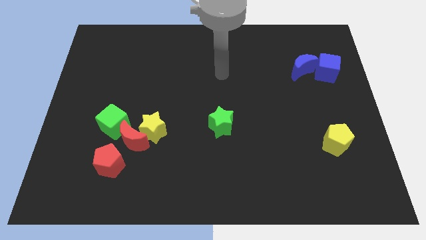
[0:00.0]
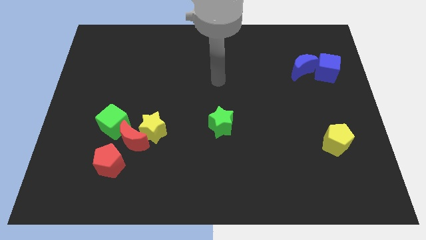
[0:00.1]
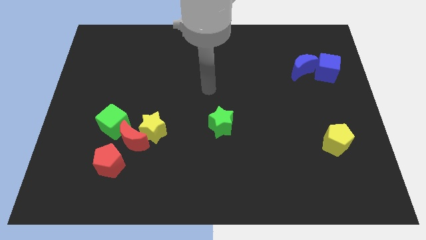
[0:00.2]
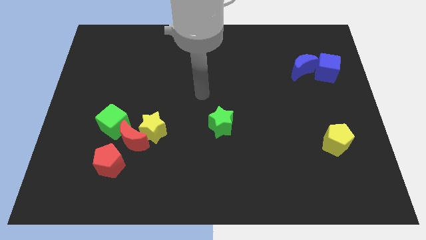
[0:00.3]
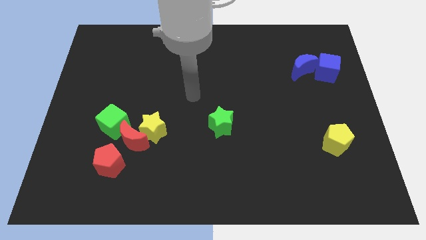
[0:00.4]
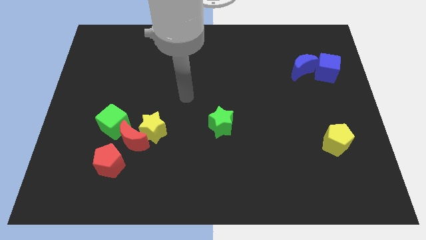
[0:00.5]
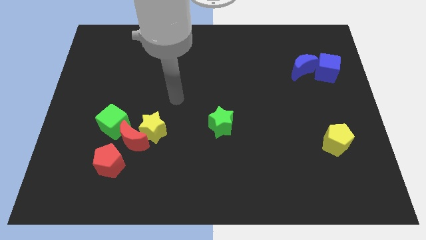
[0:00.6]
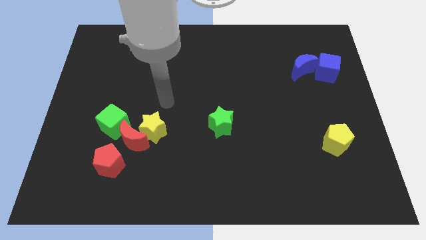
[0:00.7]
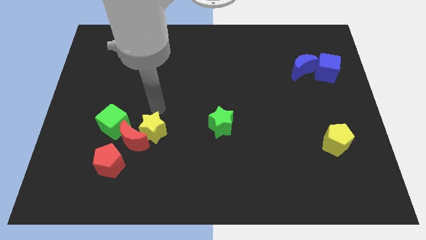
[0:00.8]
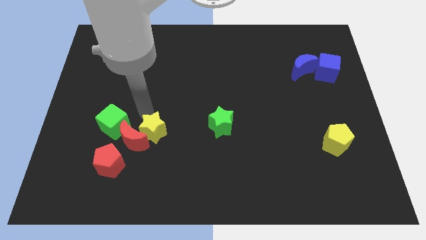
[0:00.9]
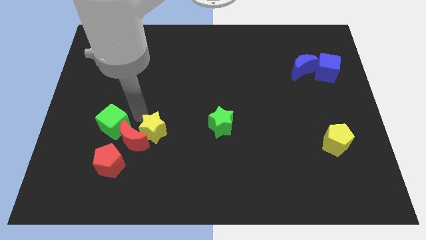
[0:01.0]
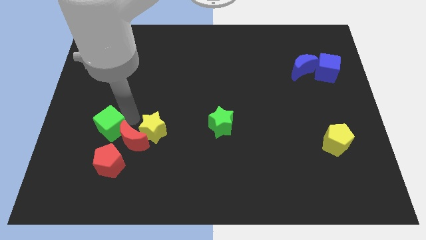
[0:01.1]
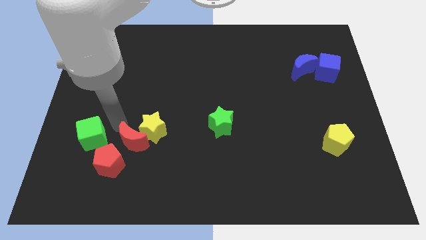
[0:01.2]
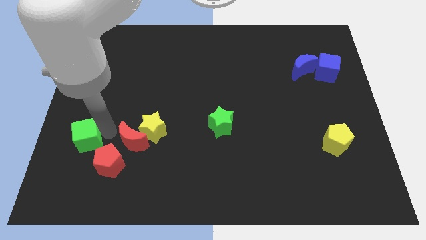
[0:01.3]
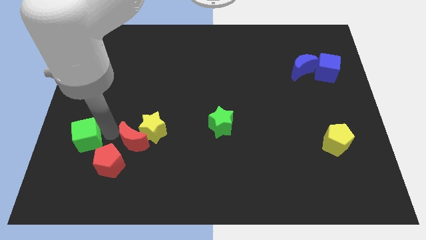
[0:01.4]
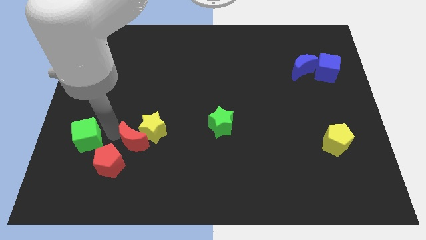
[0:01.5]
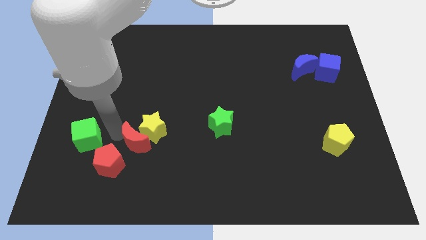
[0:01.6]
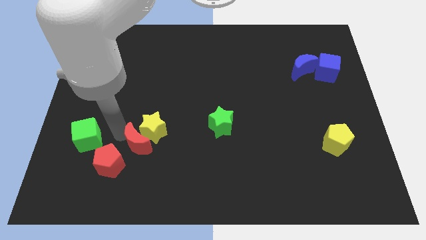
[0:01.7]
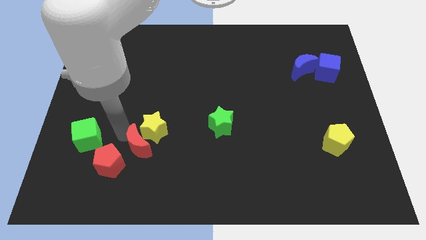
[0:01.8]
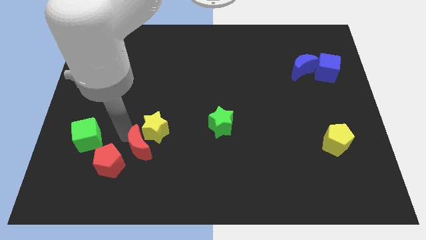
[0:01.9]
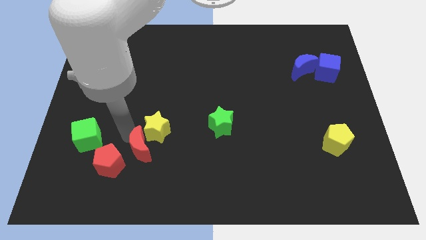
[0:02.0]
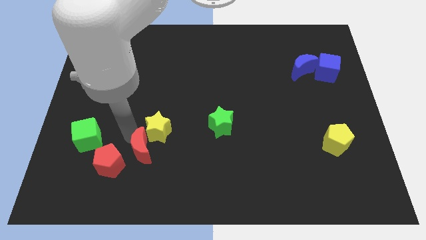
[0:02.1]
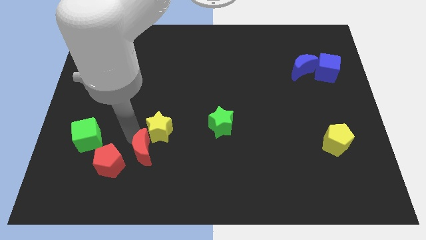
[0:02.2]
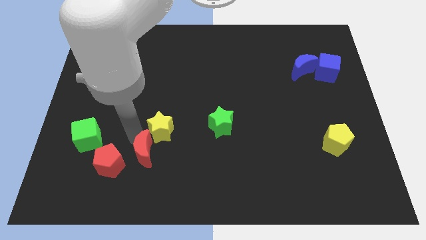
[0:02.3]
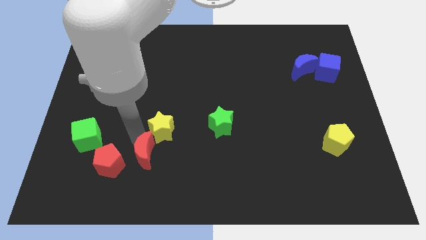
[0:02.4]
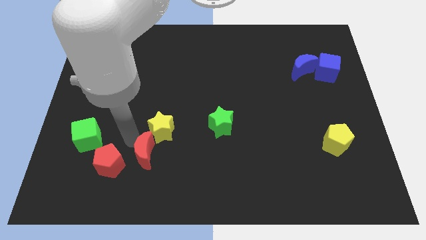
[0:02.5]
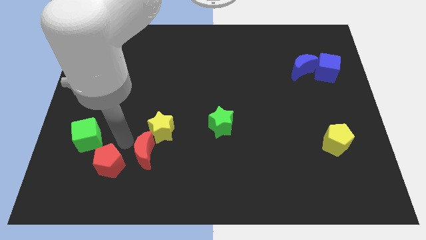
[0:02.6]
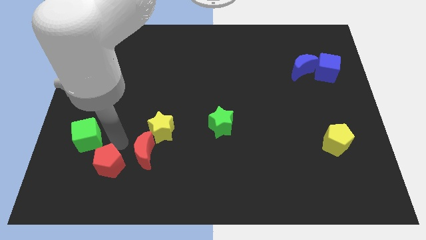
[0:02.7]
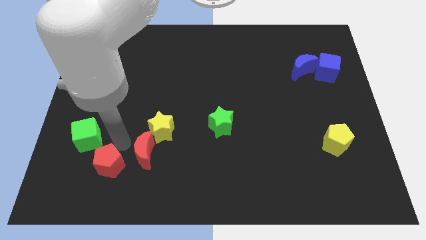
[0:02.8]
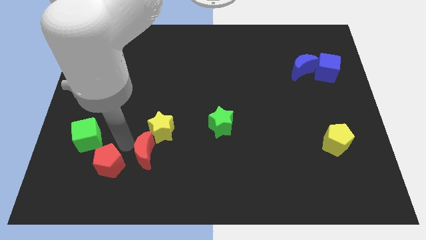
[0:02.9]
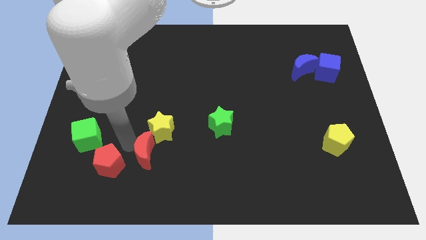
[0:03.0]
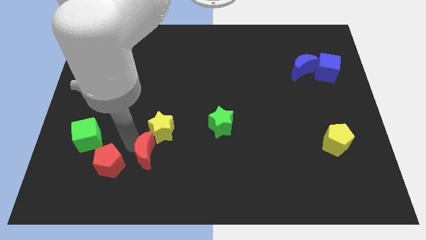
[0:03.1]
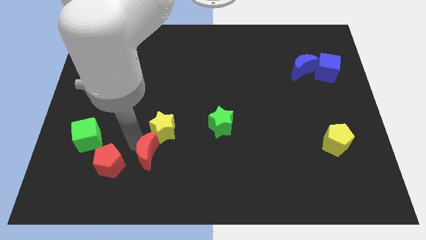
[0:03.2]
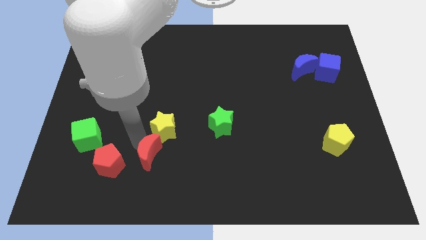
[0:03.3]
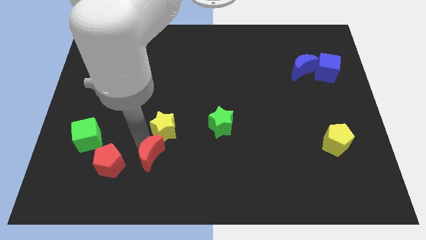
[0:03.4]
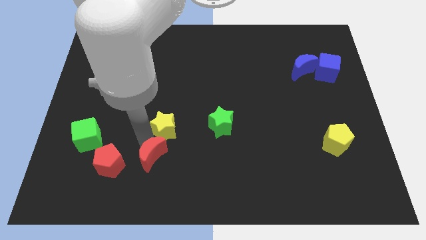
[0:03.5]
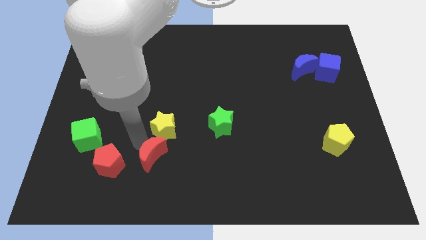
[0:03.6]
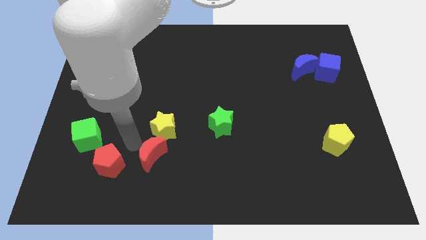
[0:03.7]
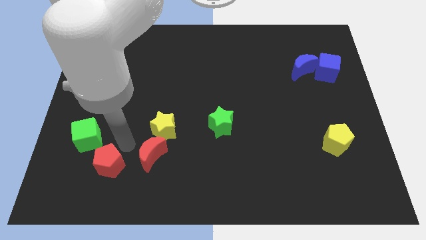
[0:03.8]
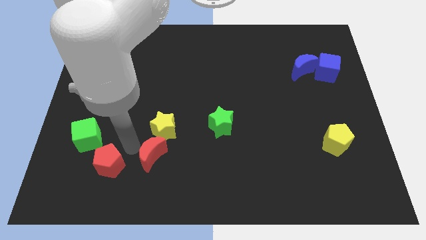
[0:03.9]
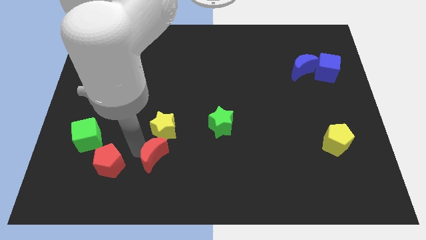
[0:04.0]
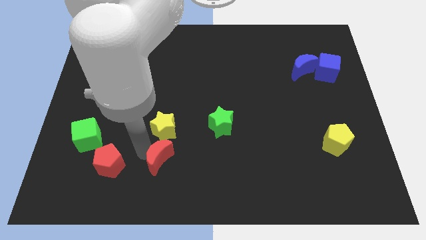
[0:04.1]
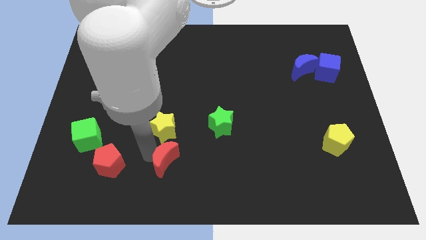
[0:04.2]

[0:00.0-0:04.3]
separate the red moon from the yellow star, green cube, and red pentagon

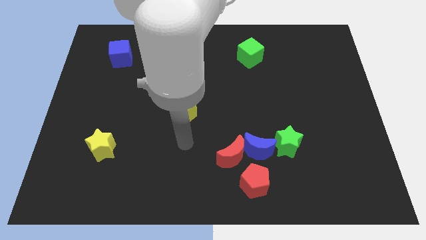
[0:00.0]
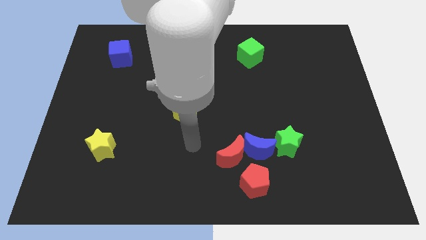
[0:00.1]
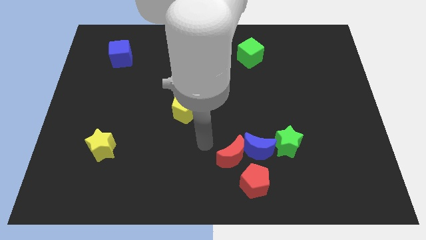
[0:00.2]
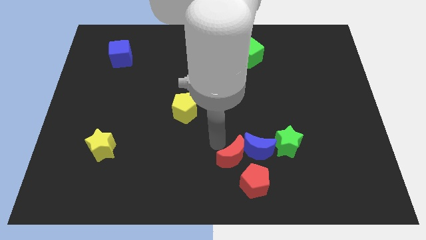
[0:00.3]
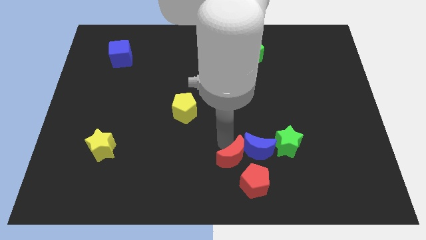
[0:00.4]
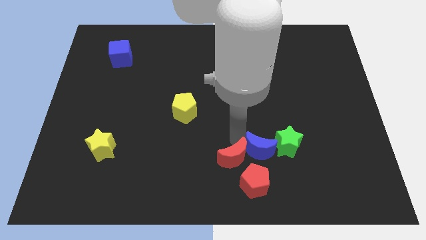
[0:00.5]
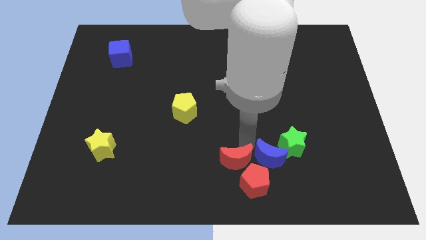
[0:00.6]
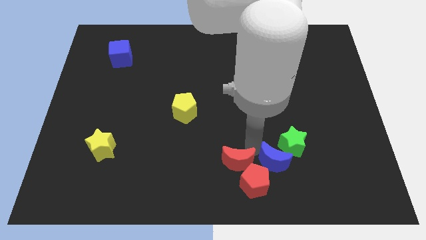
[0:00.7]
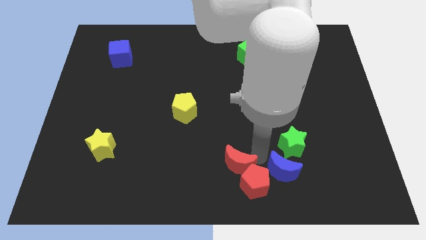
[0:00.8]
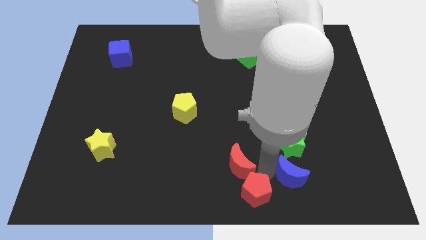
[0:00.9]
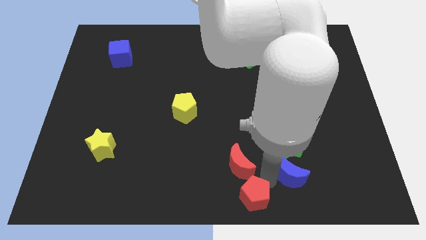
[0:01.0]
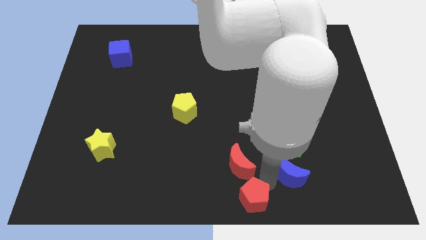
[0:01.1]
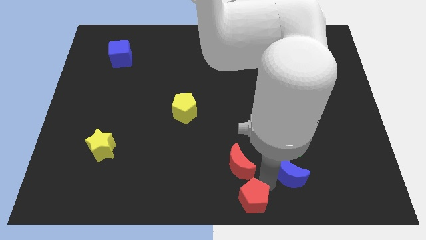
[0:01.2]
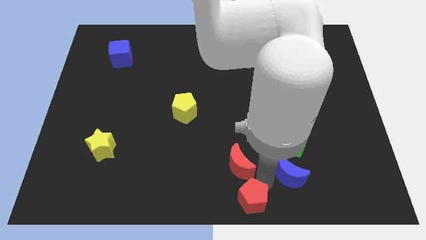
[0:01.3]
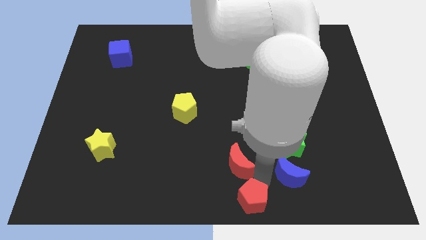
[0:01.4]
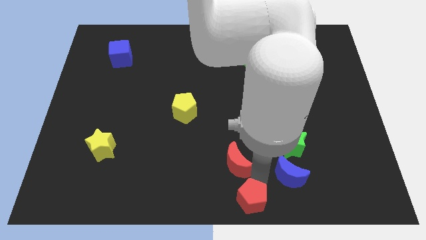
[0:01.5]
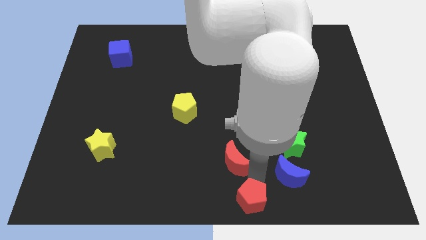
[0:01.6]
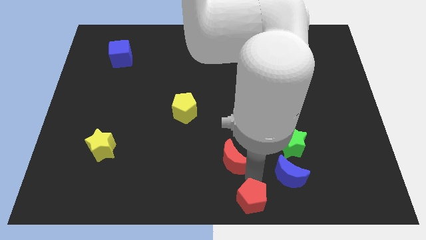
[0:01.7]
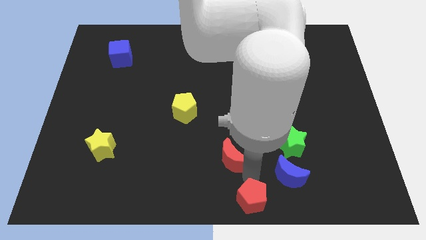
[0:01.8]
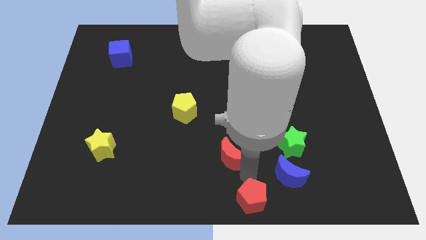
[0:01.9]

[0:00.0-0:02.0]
move the red moon away from the blue moon and red pentagon

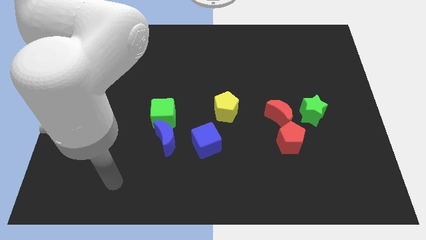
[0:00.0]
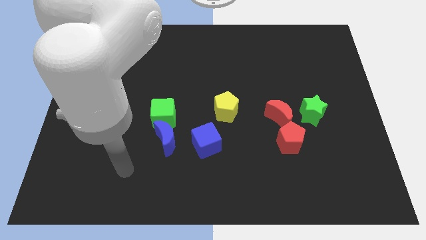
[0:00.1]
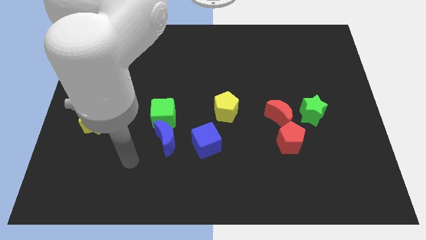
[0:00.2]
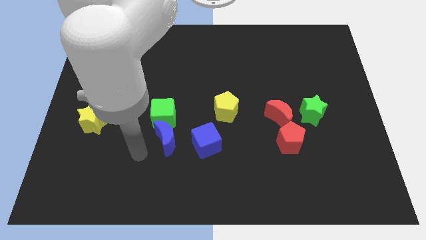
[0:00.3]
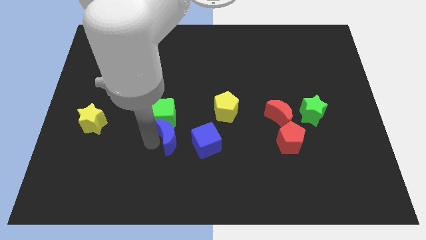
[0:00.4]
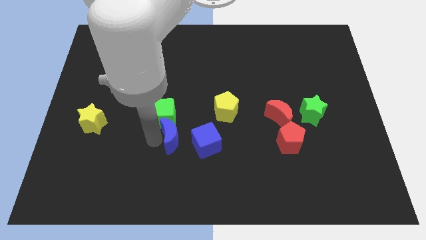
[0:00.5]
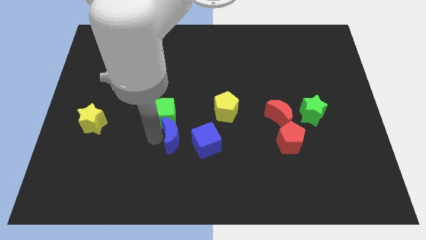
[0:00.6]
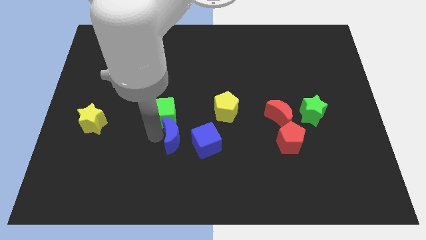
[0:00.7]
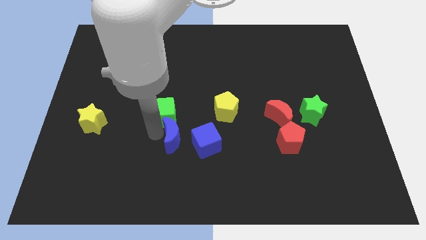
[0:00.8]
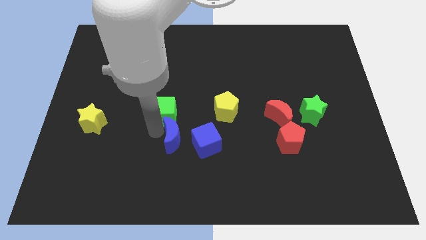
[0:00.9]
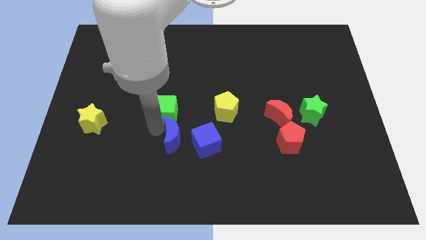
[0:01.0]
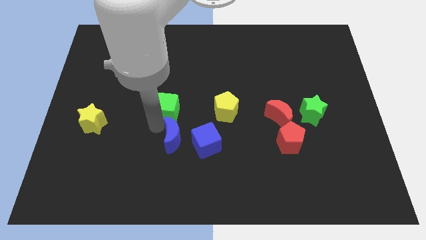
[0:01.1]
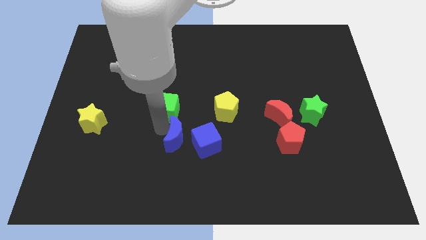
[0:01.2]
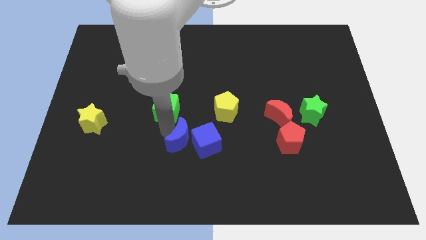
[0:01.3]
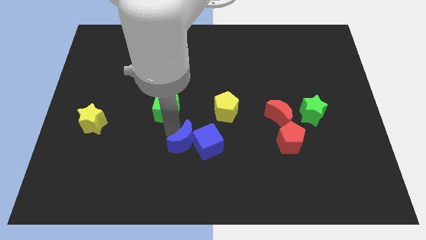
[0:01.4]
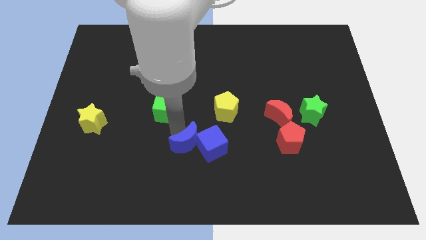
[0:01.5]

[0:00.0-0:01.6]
move the green cube away from the blue moon

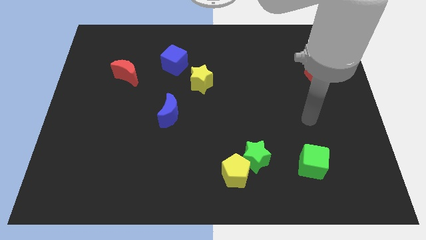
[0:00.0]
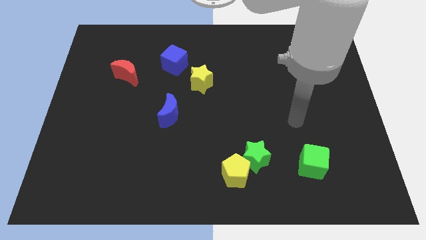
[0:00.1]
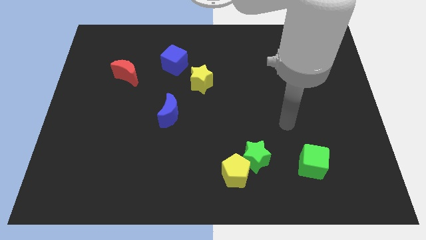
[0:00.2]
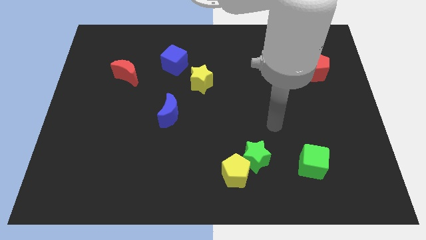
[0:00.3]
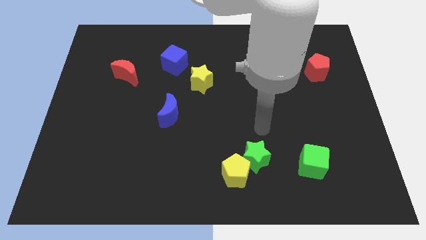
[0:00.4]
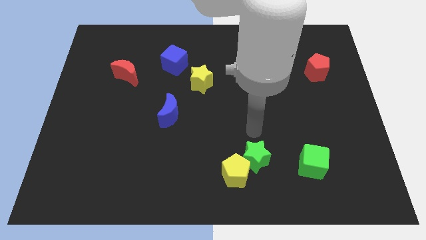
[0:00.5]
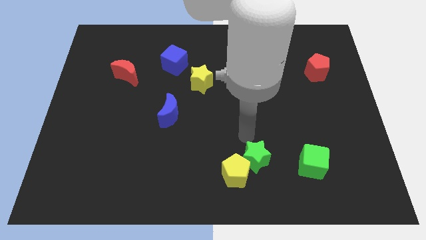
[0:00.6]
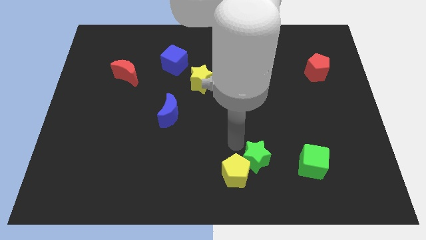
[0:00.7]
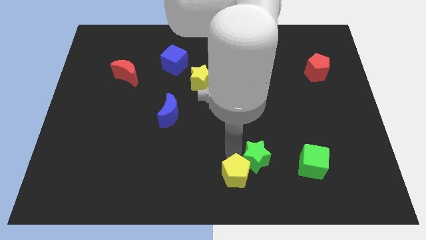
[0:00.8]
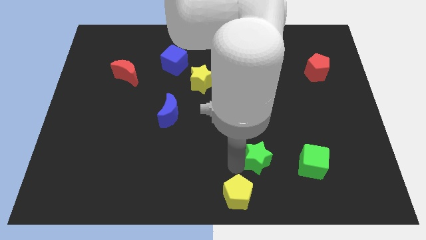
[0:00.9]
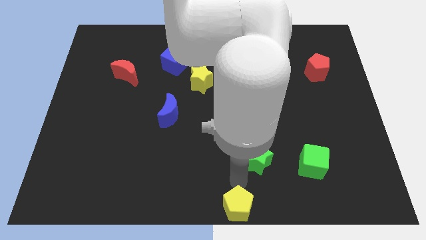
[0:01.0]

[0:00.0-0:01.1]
separate the green star from the yellow pentagon

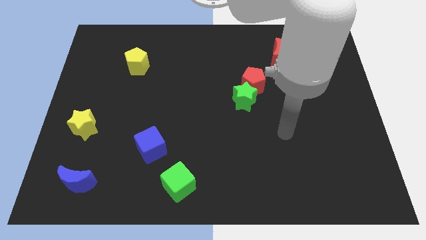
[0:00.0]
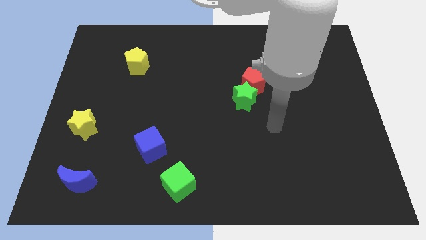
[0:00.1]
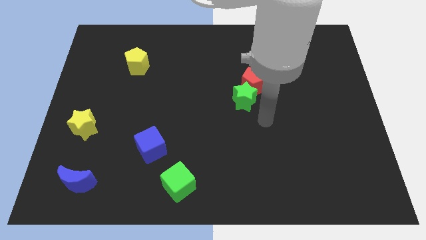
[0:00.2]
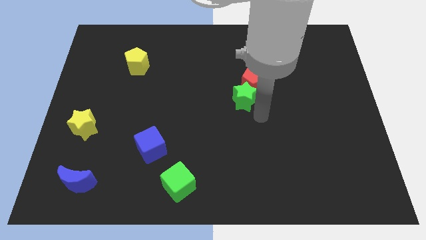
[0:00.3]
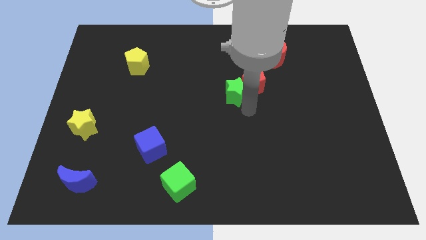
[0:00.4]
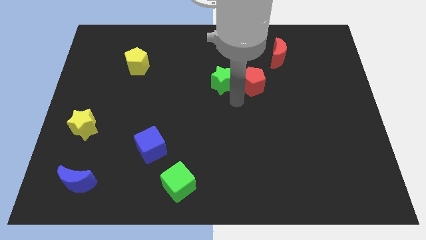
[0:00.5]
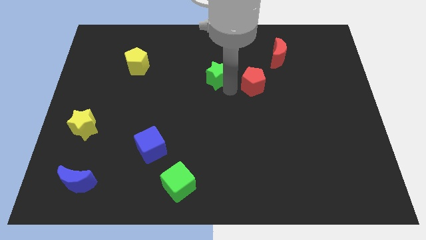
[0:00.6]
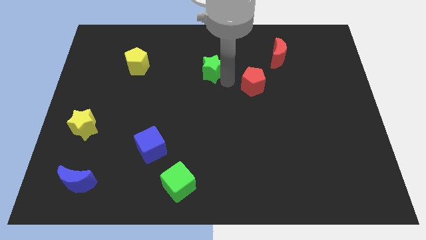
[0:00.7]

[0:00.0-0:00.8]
pull the red pentagon apart from the green star
